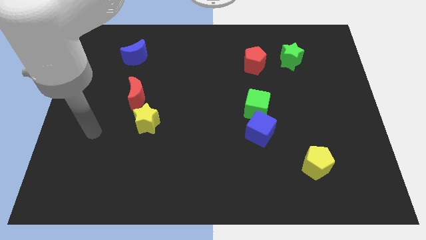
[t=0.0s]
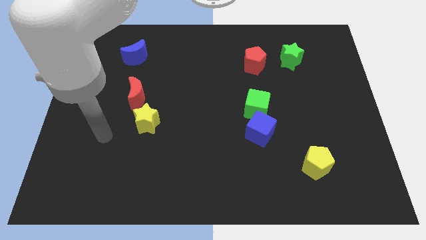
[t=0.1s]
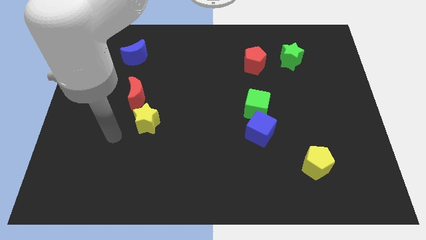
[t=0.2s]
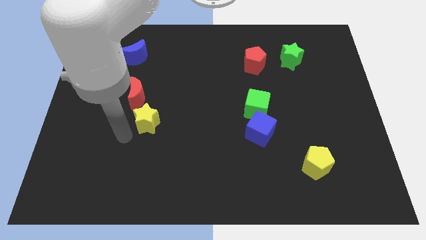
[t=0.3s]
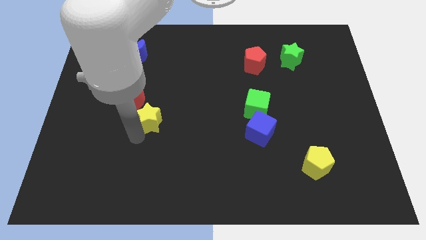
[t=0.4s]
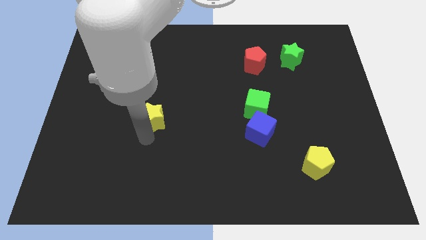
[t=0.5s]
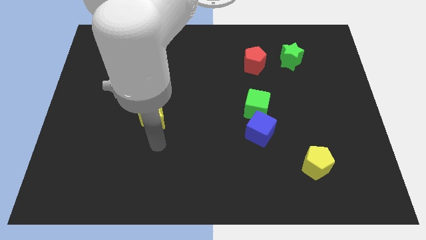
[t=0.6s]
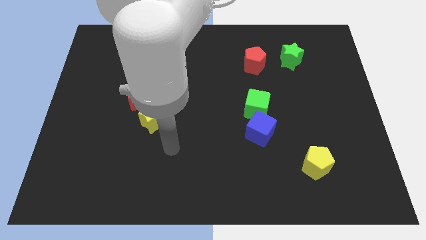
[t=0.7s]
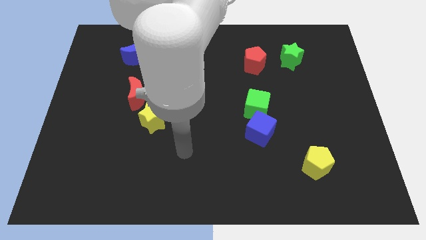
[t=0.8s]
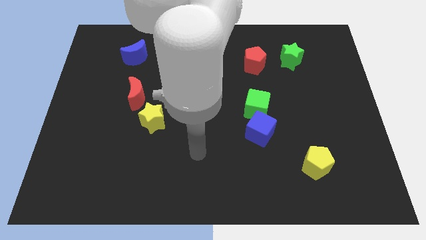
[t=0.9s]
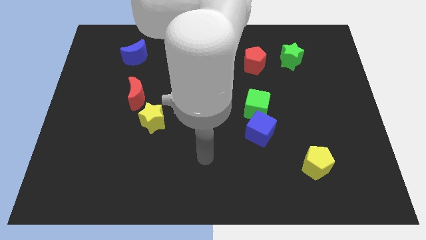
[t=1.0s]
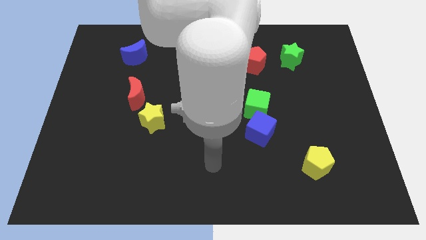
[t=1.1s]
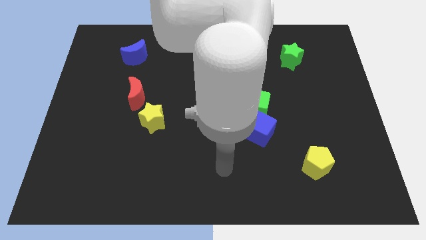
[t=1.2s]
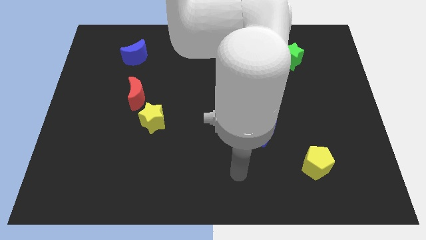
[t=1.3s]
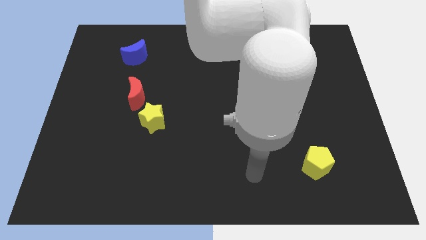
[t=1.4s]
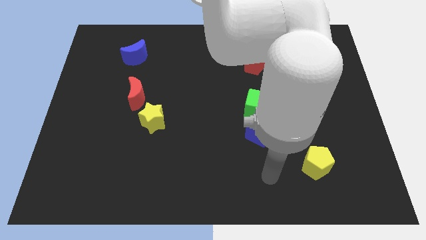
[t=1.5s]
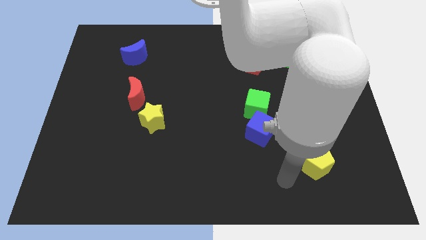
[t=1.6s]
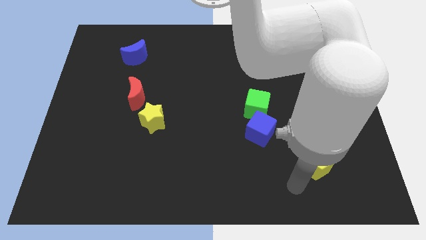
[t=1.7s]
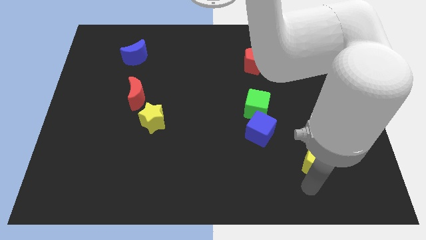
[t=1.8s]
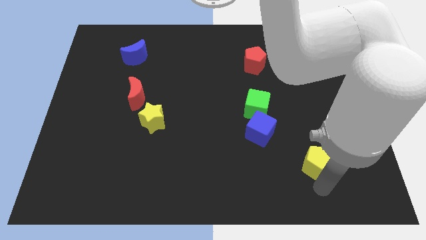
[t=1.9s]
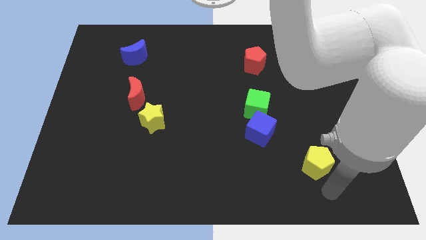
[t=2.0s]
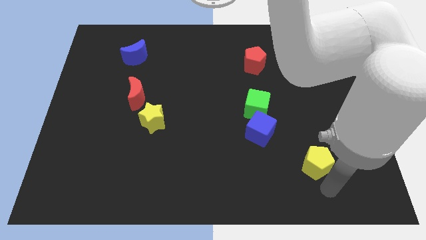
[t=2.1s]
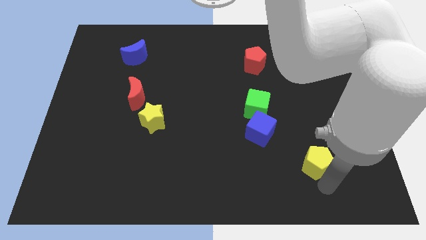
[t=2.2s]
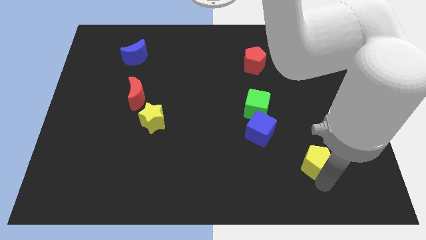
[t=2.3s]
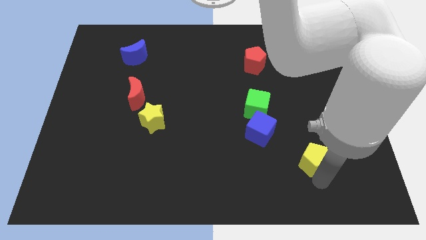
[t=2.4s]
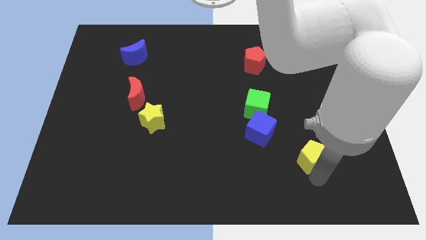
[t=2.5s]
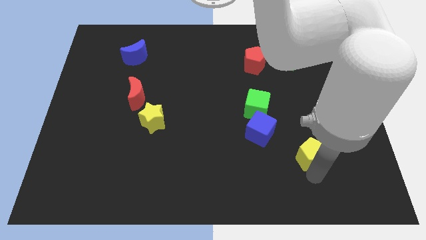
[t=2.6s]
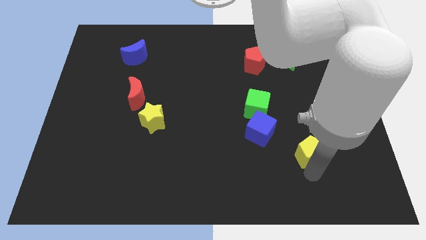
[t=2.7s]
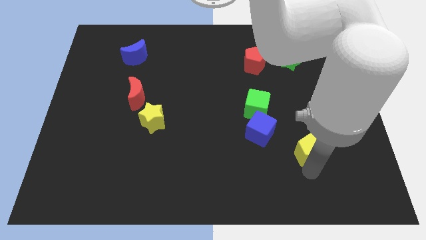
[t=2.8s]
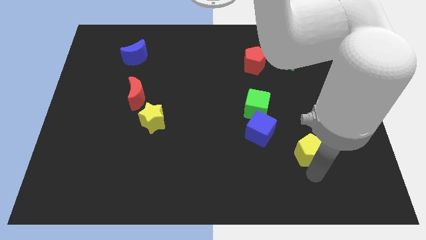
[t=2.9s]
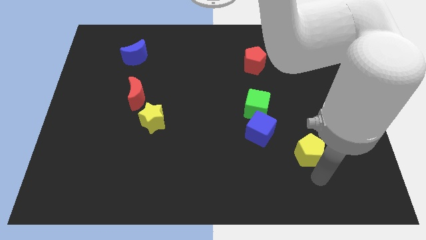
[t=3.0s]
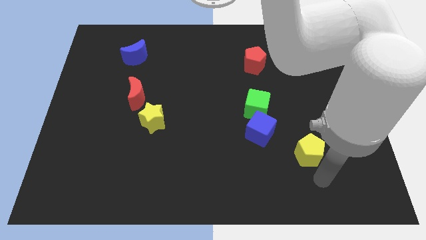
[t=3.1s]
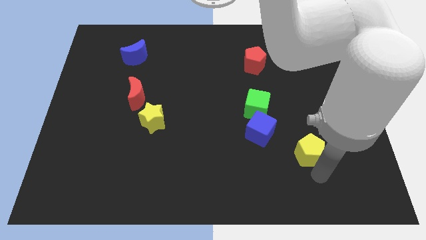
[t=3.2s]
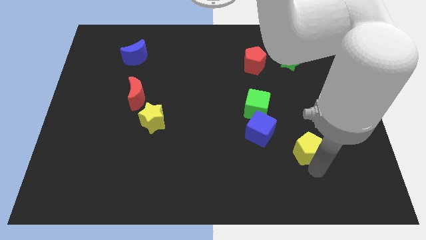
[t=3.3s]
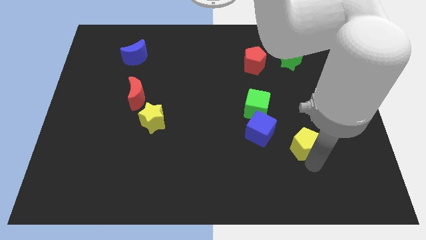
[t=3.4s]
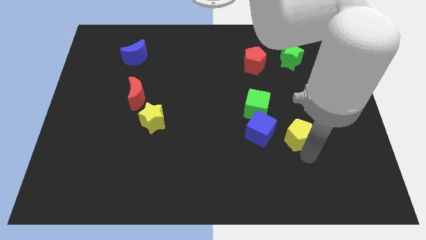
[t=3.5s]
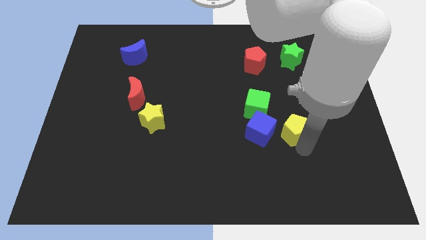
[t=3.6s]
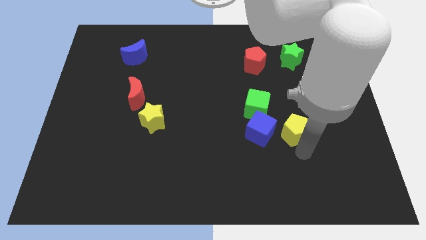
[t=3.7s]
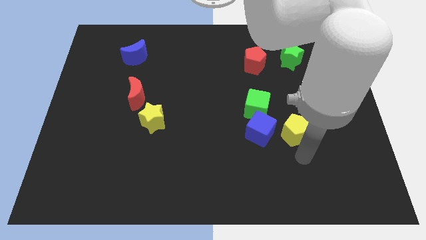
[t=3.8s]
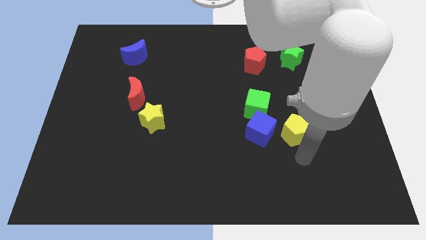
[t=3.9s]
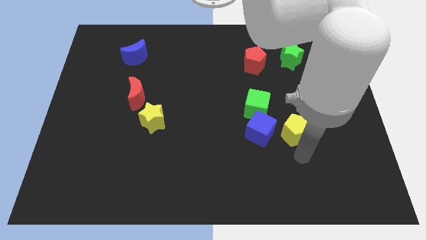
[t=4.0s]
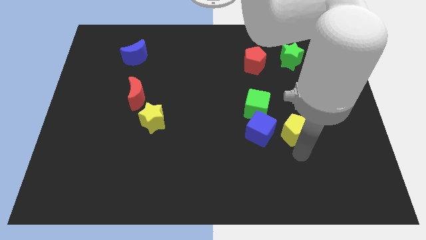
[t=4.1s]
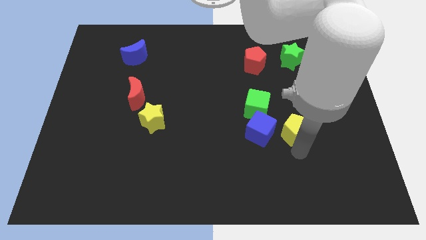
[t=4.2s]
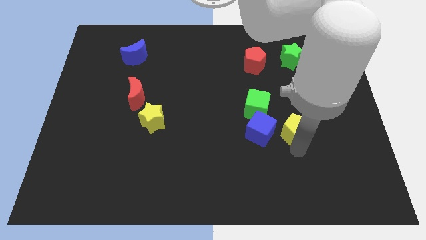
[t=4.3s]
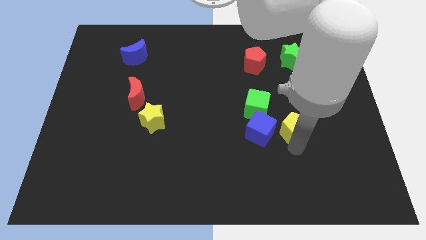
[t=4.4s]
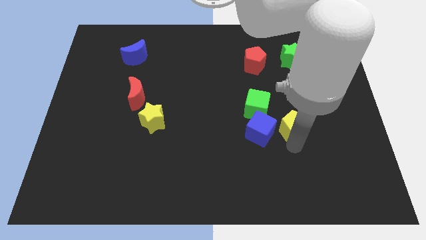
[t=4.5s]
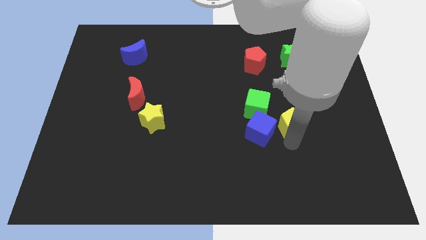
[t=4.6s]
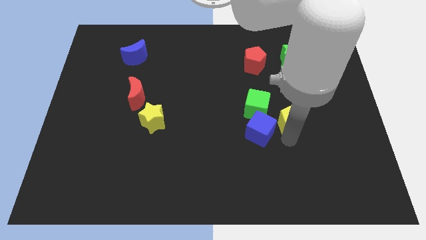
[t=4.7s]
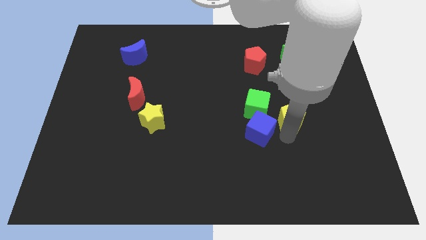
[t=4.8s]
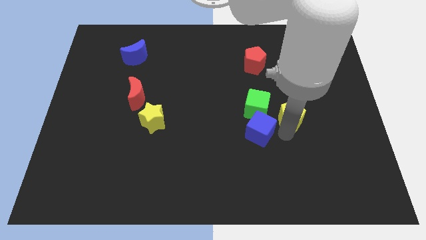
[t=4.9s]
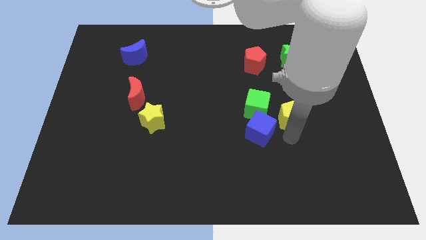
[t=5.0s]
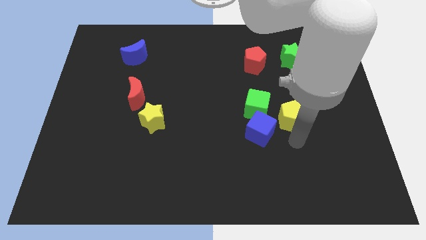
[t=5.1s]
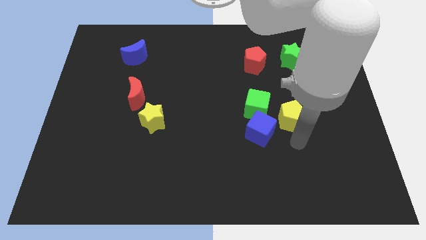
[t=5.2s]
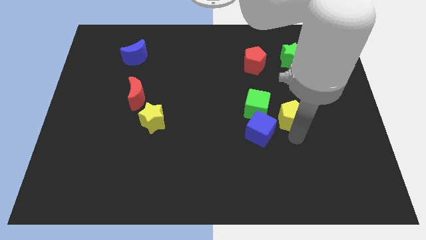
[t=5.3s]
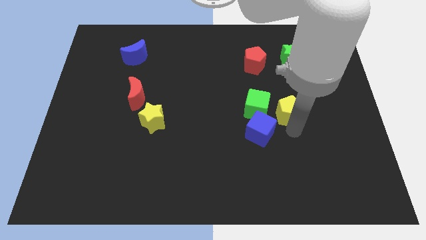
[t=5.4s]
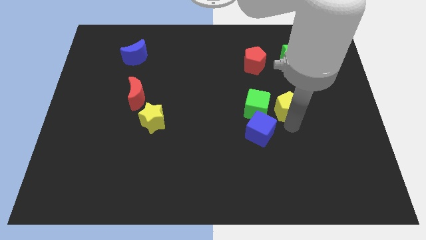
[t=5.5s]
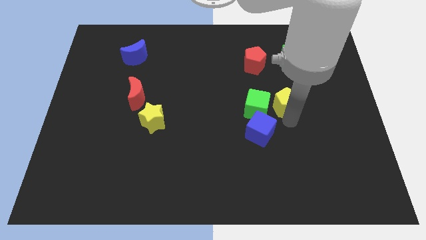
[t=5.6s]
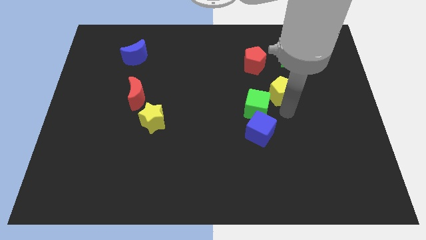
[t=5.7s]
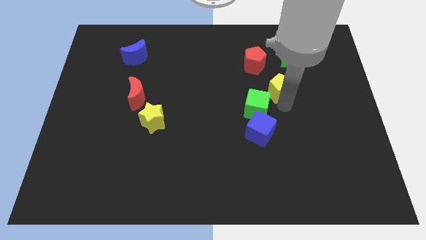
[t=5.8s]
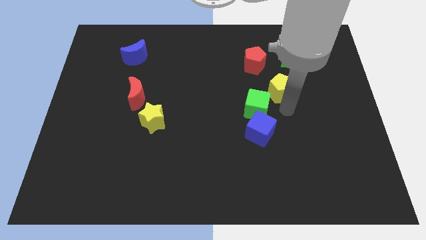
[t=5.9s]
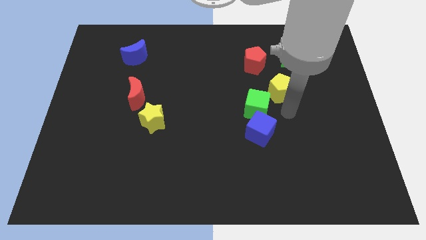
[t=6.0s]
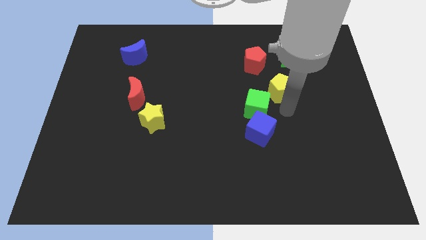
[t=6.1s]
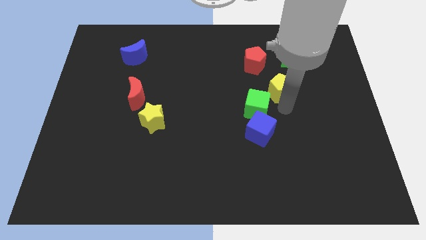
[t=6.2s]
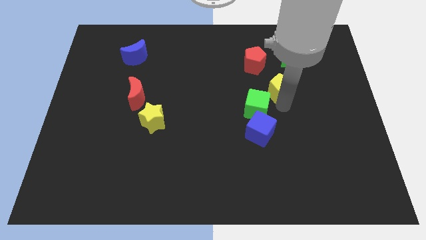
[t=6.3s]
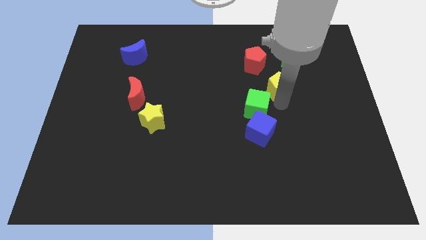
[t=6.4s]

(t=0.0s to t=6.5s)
push the yellow pentagon to the bottom left of the green star

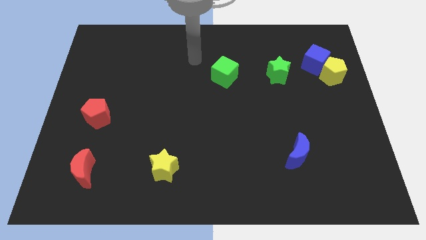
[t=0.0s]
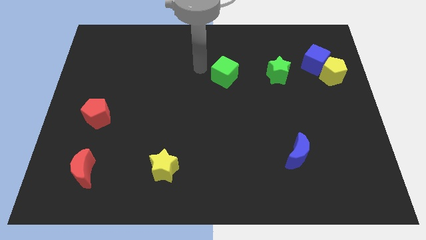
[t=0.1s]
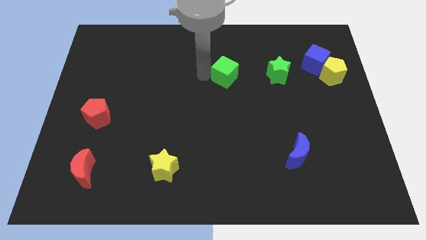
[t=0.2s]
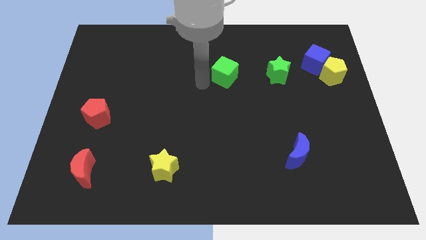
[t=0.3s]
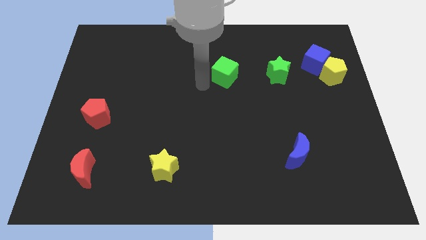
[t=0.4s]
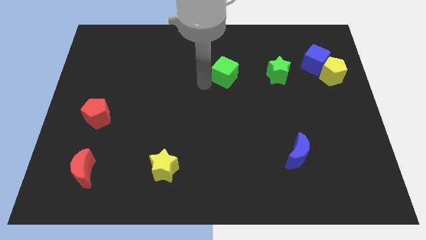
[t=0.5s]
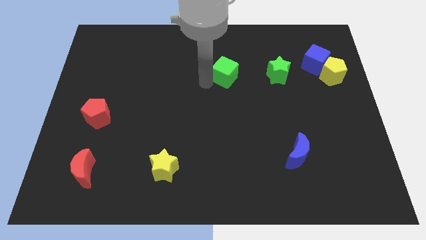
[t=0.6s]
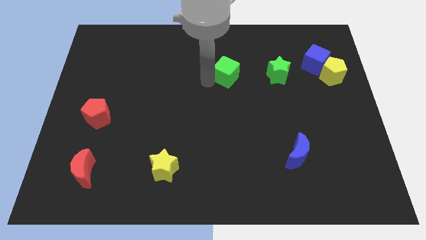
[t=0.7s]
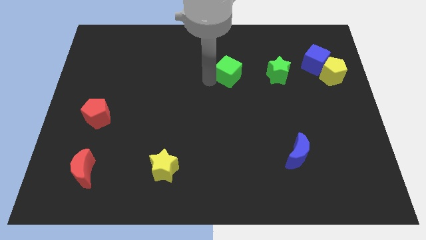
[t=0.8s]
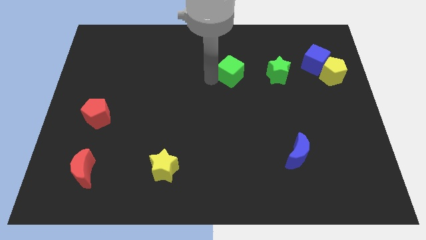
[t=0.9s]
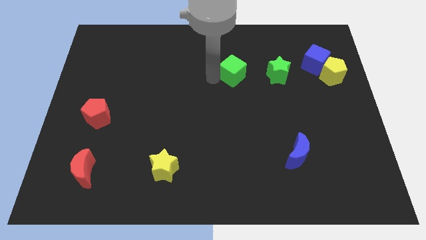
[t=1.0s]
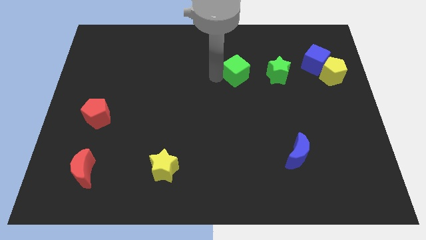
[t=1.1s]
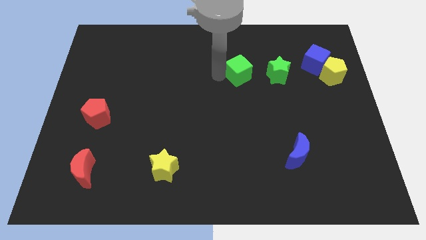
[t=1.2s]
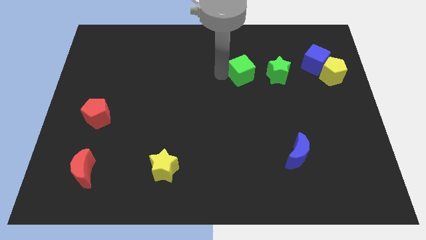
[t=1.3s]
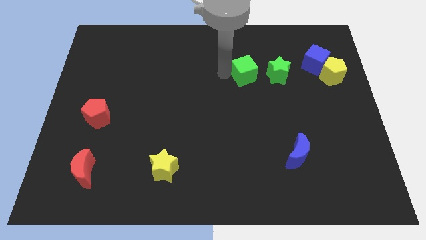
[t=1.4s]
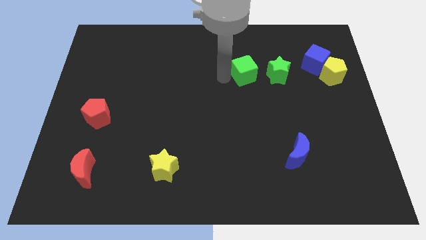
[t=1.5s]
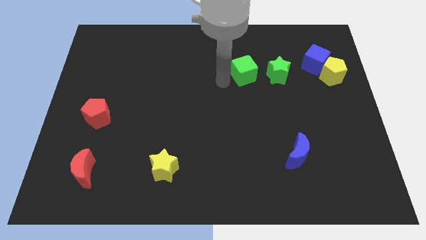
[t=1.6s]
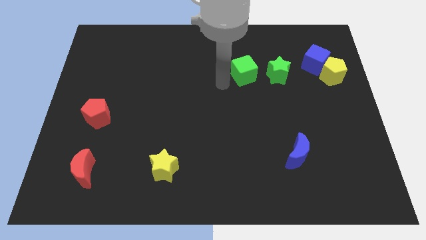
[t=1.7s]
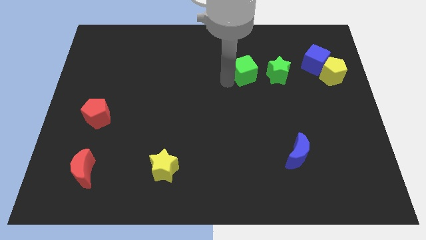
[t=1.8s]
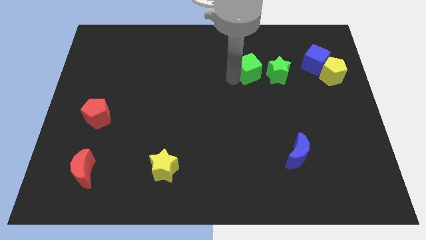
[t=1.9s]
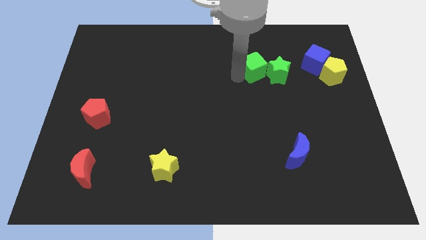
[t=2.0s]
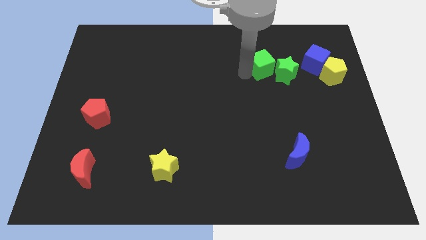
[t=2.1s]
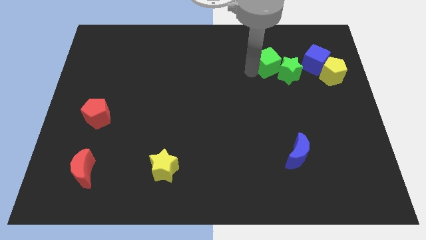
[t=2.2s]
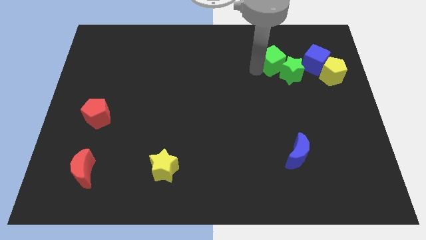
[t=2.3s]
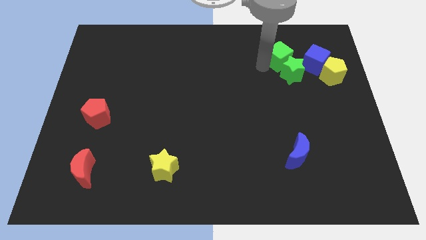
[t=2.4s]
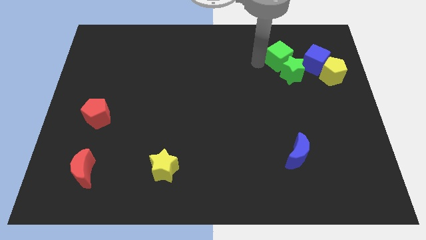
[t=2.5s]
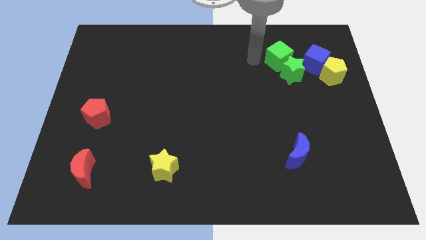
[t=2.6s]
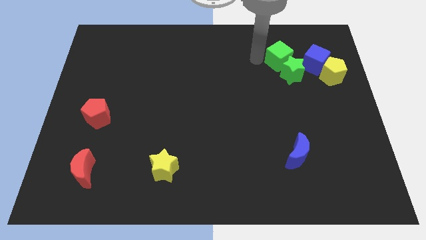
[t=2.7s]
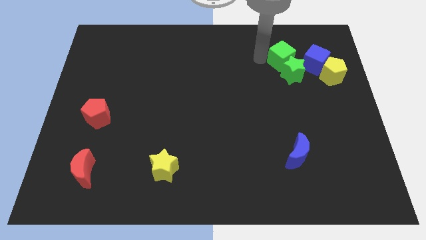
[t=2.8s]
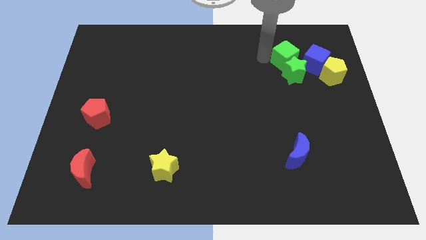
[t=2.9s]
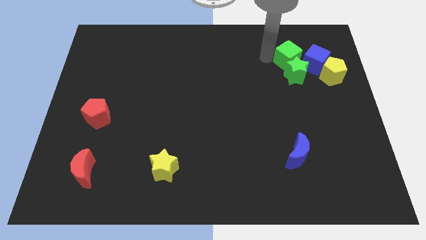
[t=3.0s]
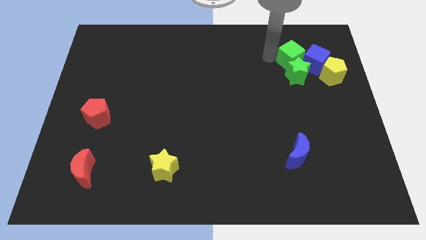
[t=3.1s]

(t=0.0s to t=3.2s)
put the green cube to the top right of the green star
